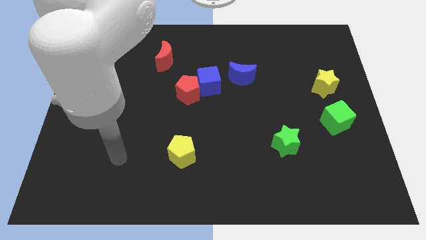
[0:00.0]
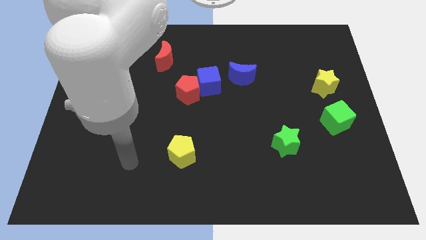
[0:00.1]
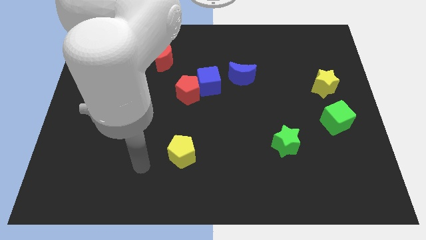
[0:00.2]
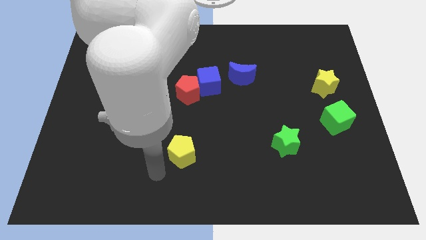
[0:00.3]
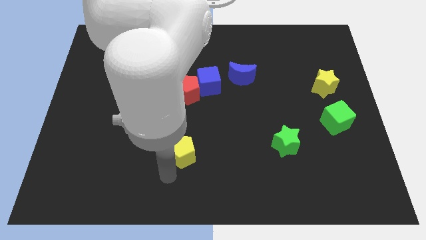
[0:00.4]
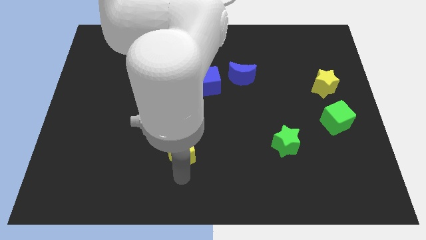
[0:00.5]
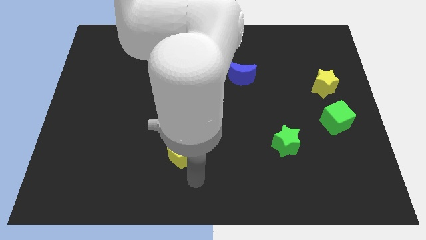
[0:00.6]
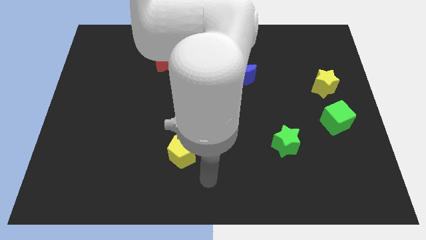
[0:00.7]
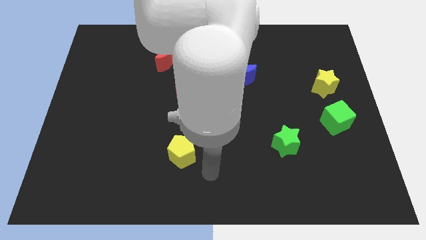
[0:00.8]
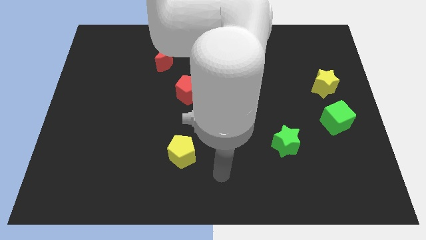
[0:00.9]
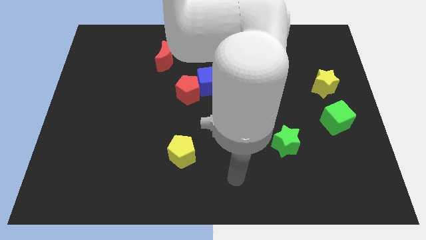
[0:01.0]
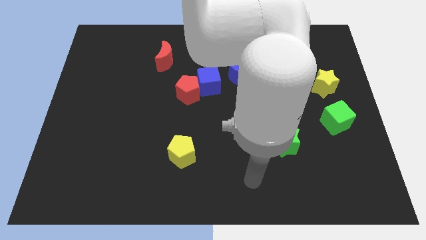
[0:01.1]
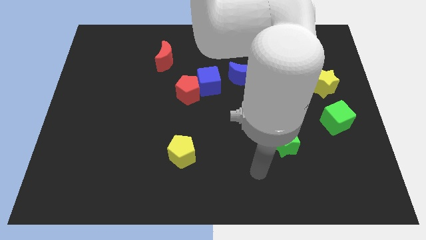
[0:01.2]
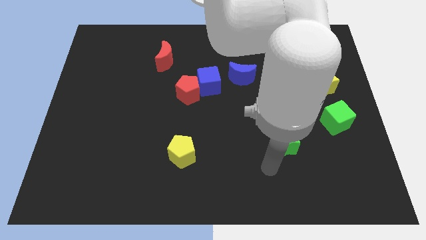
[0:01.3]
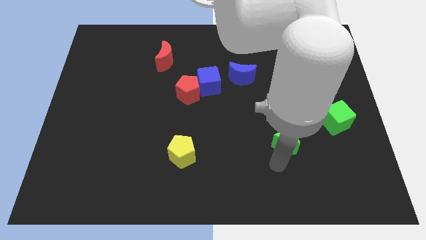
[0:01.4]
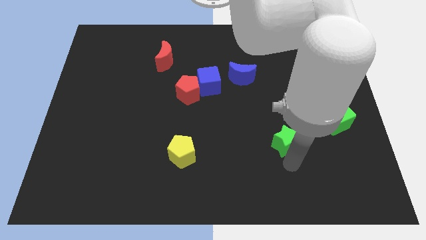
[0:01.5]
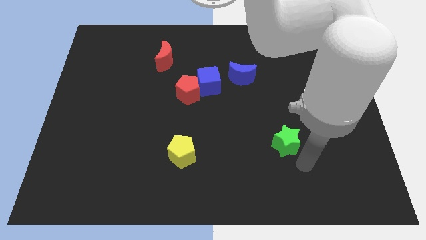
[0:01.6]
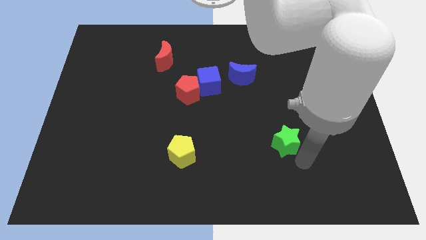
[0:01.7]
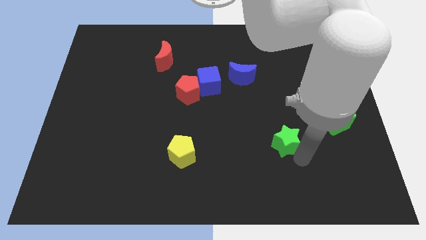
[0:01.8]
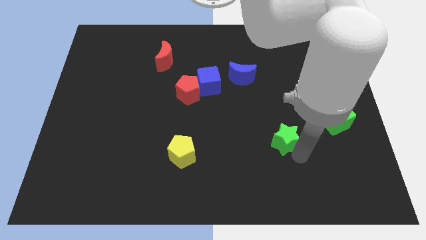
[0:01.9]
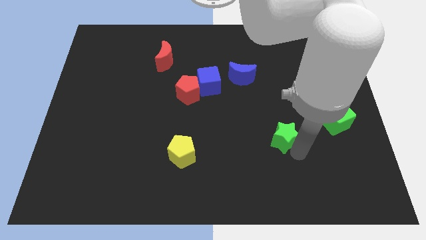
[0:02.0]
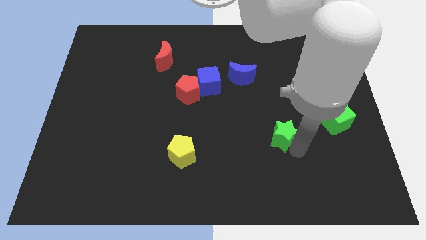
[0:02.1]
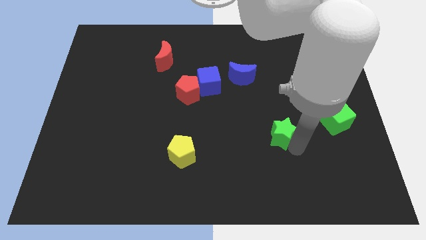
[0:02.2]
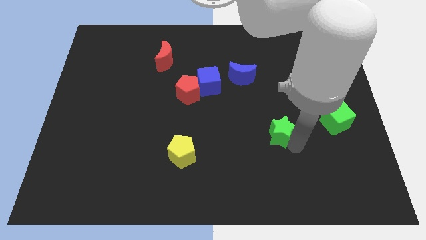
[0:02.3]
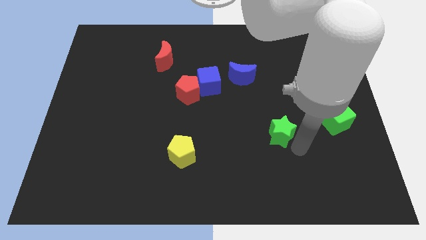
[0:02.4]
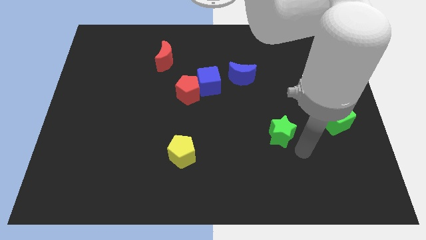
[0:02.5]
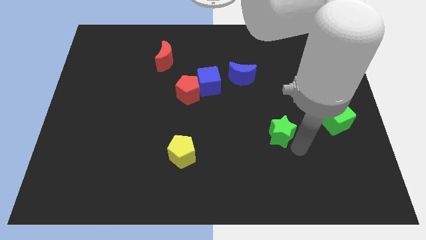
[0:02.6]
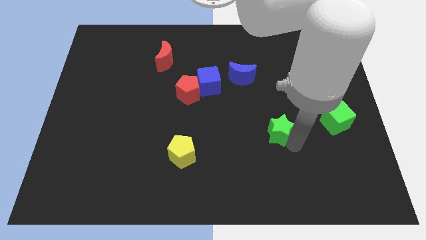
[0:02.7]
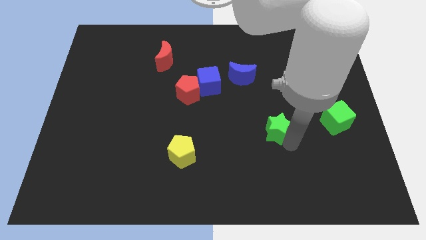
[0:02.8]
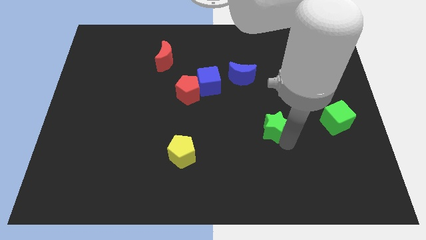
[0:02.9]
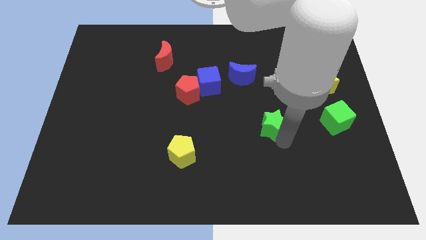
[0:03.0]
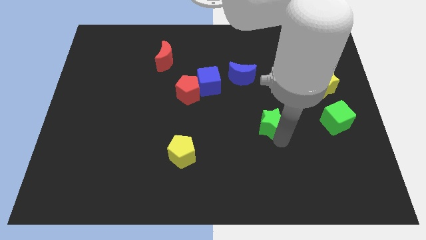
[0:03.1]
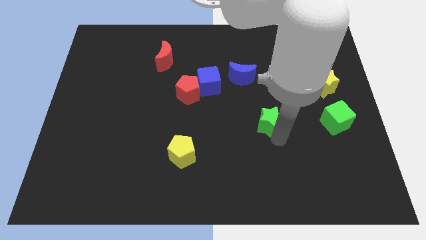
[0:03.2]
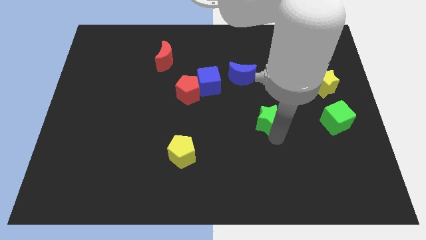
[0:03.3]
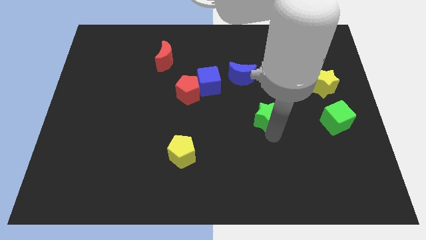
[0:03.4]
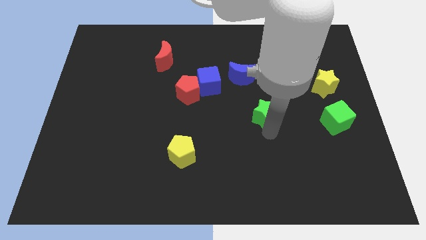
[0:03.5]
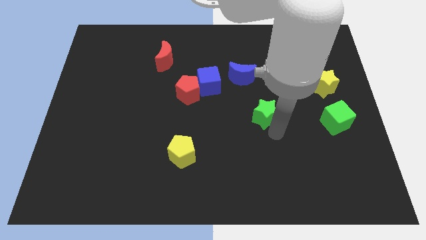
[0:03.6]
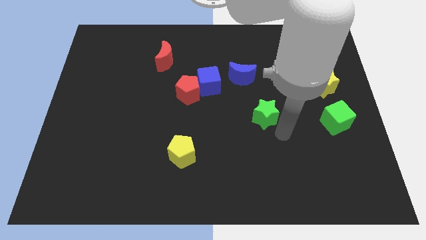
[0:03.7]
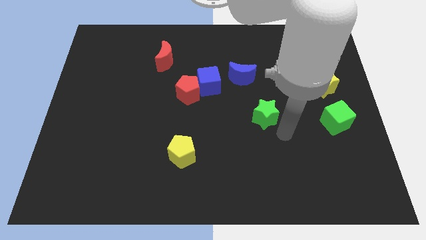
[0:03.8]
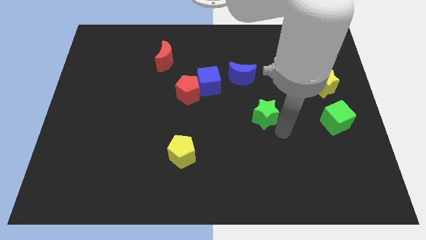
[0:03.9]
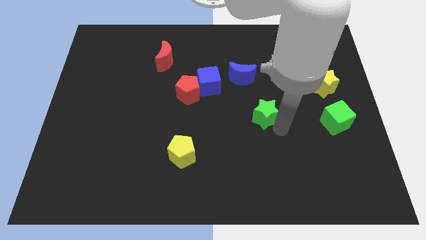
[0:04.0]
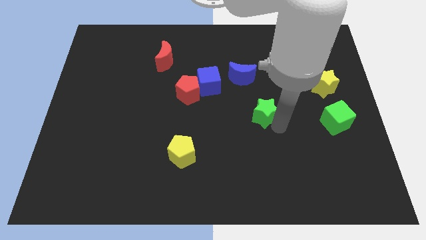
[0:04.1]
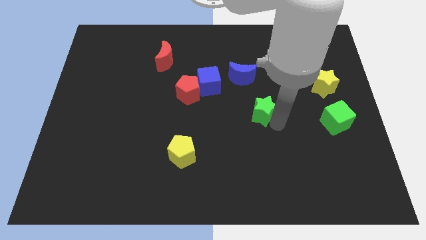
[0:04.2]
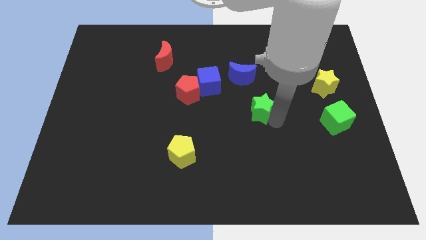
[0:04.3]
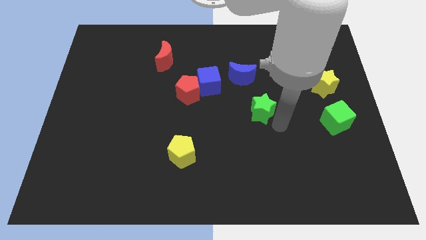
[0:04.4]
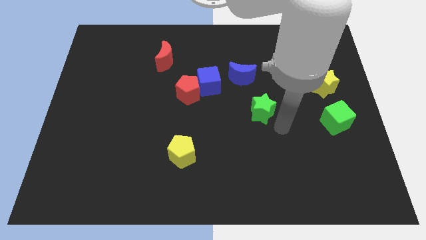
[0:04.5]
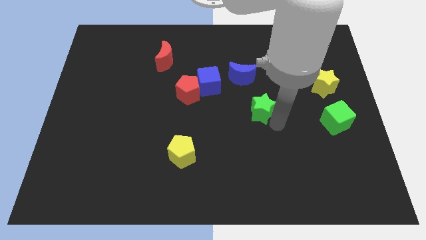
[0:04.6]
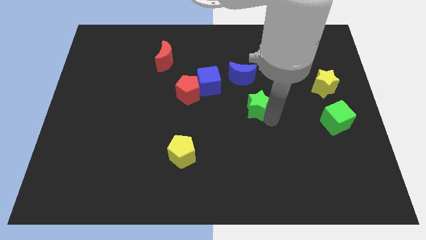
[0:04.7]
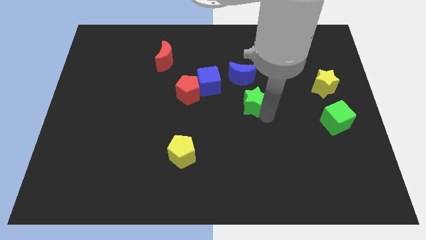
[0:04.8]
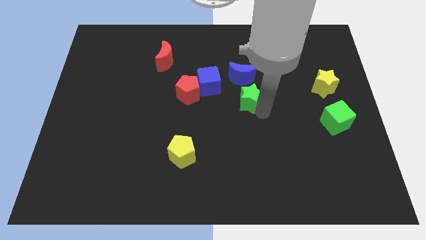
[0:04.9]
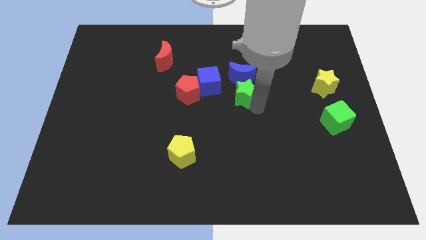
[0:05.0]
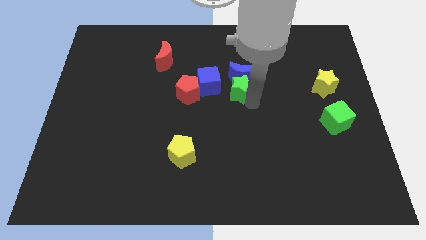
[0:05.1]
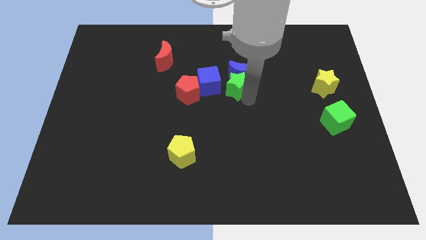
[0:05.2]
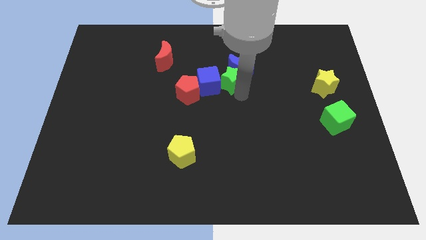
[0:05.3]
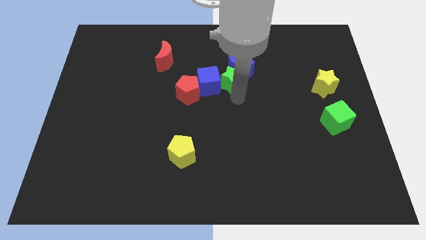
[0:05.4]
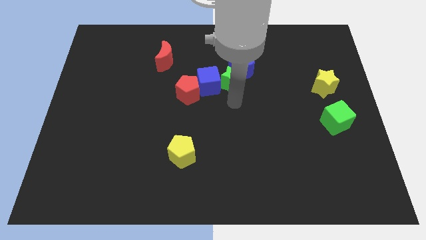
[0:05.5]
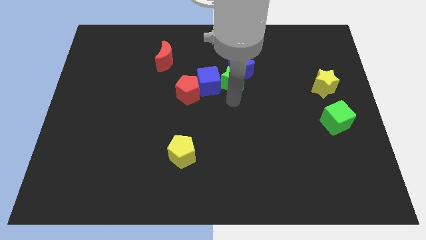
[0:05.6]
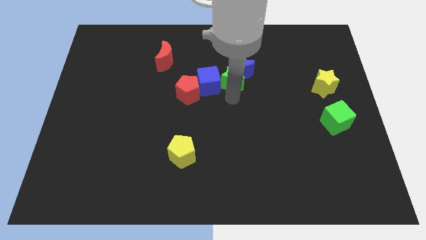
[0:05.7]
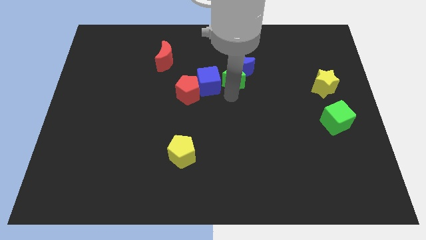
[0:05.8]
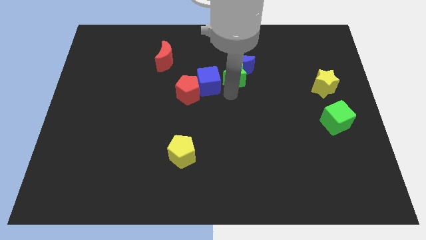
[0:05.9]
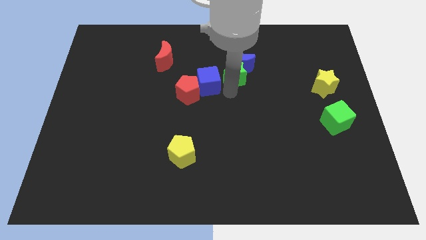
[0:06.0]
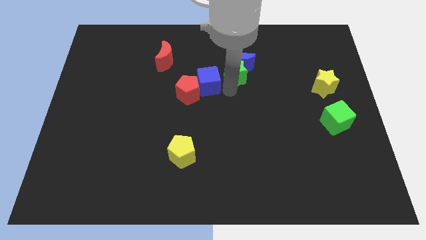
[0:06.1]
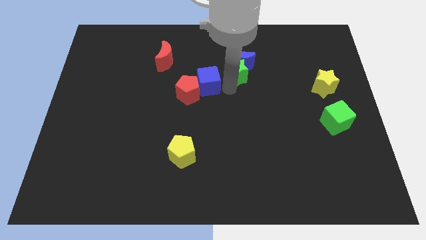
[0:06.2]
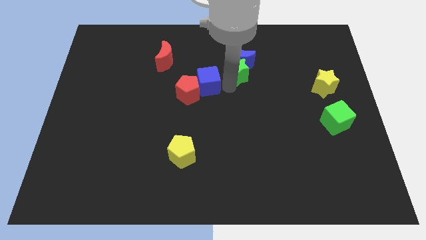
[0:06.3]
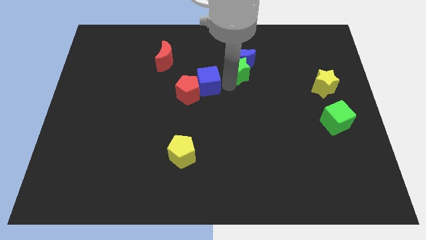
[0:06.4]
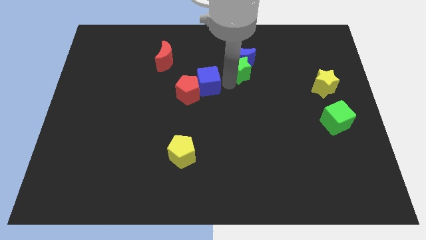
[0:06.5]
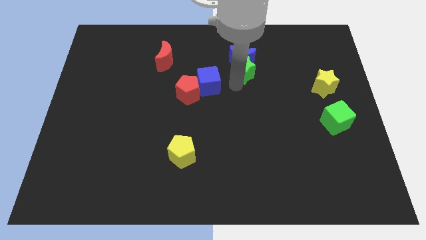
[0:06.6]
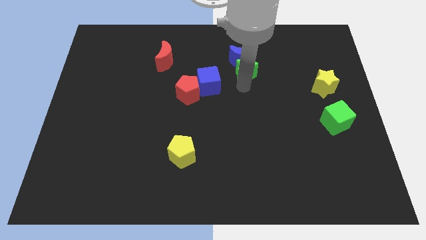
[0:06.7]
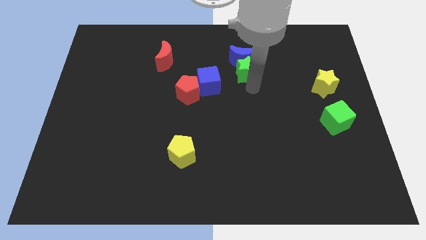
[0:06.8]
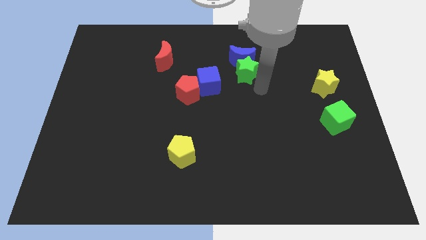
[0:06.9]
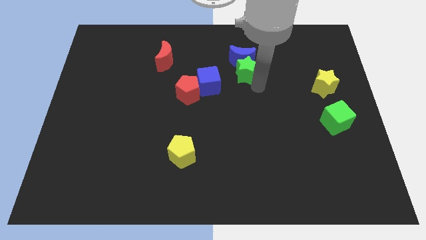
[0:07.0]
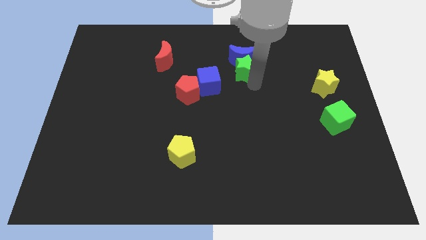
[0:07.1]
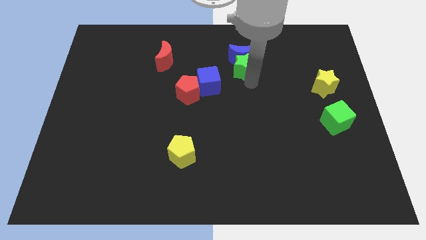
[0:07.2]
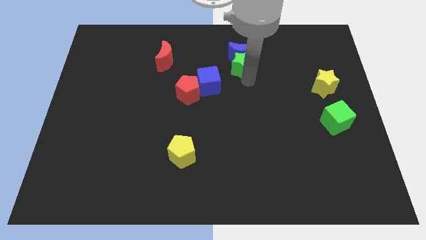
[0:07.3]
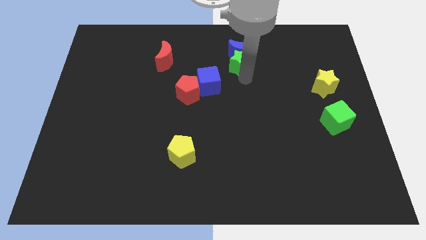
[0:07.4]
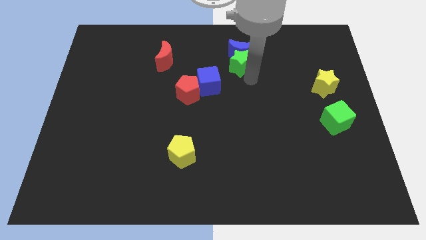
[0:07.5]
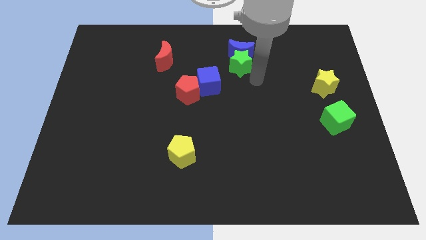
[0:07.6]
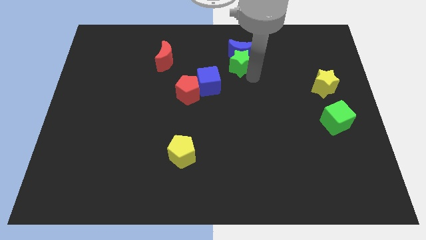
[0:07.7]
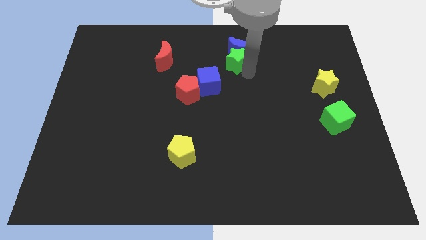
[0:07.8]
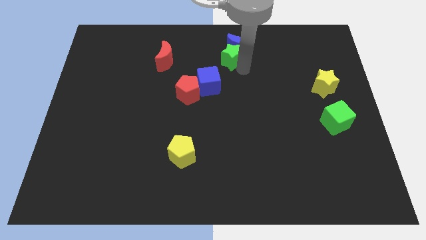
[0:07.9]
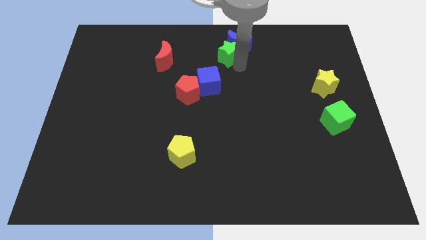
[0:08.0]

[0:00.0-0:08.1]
slide the green star to the towards your base

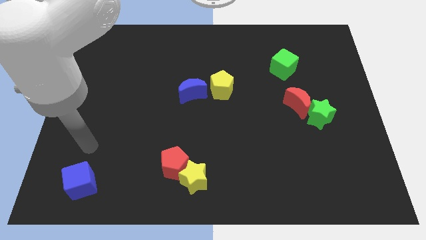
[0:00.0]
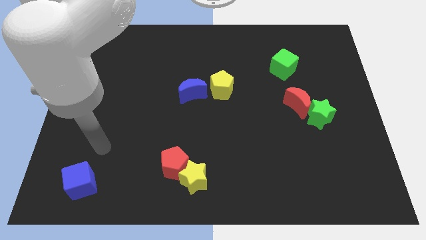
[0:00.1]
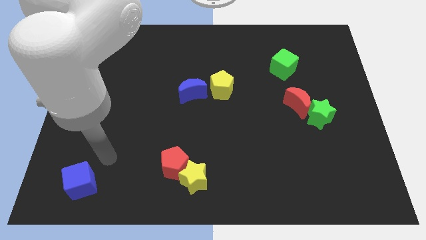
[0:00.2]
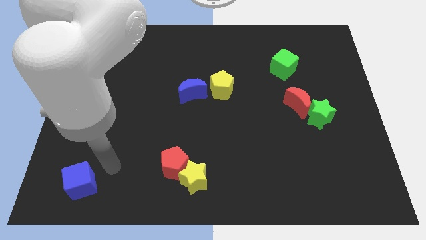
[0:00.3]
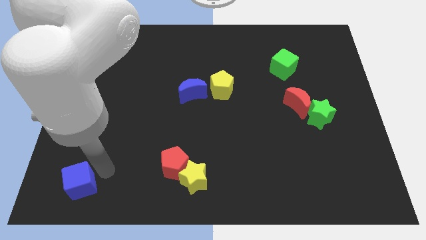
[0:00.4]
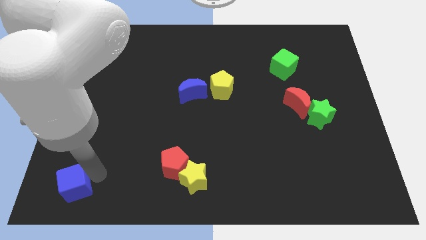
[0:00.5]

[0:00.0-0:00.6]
slide the blue cube to the bottom left
